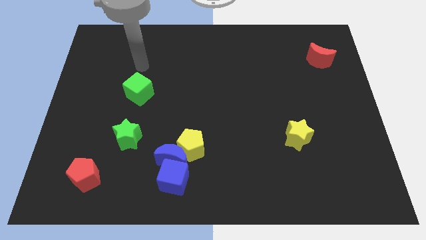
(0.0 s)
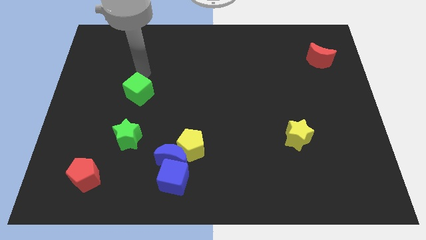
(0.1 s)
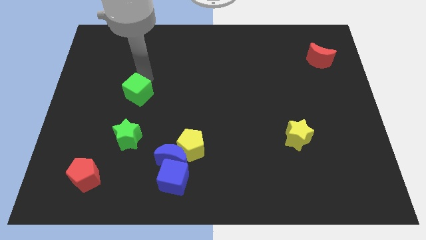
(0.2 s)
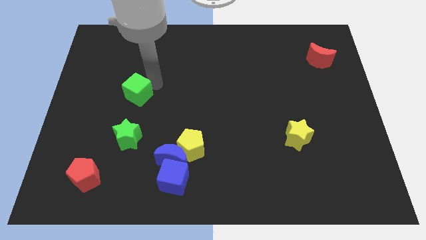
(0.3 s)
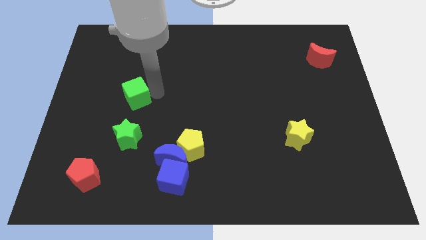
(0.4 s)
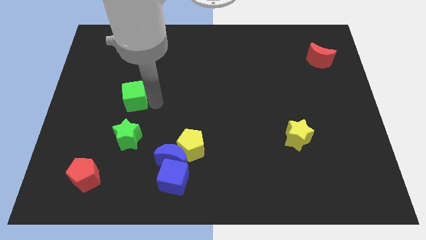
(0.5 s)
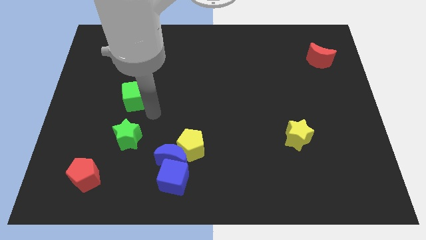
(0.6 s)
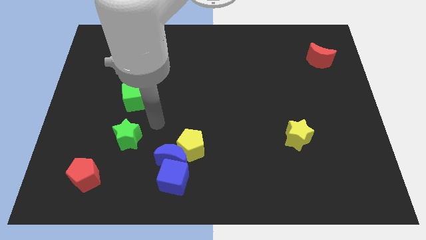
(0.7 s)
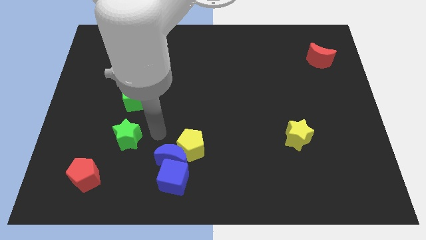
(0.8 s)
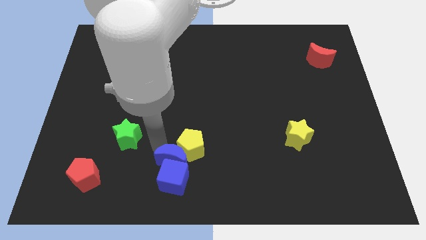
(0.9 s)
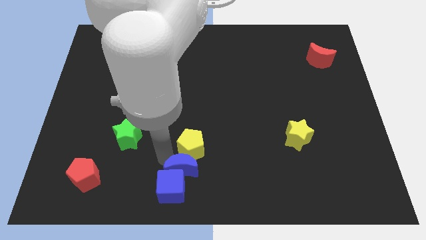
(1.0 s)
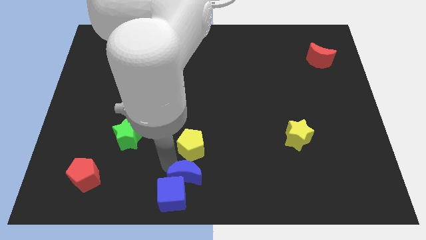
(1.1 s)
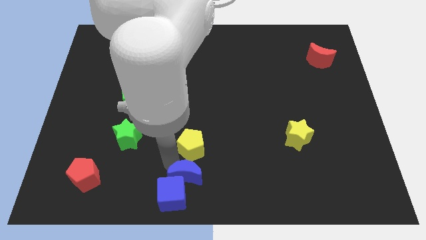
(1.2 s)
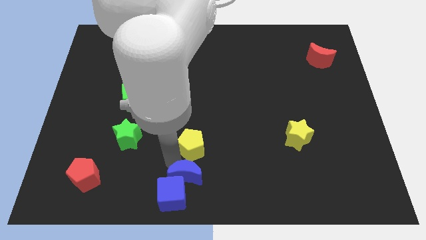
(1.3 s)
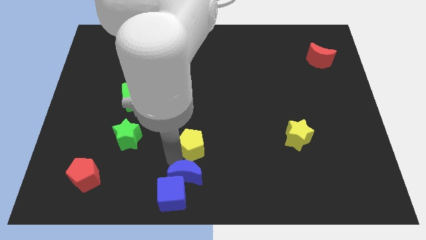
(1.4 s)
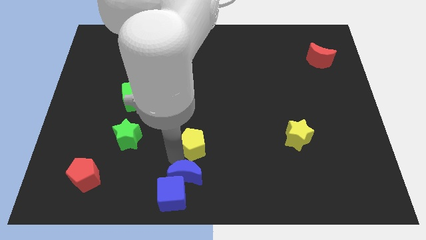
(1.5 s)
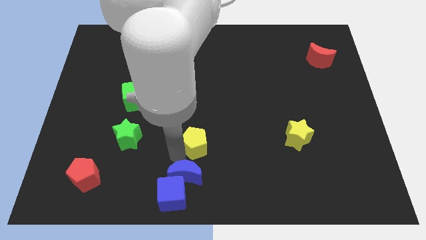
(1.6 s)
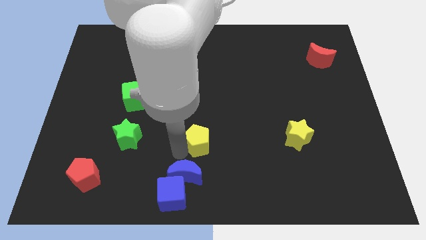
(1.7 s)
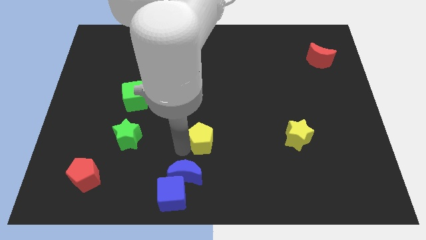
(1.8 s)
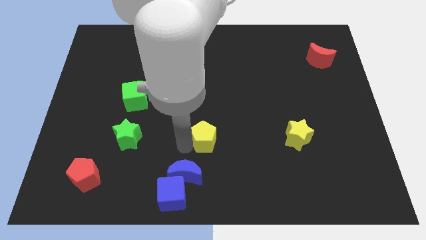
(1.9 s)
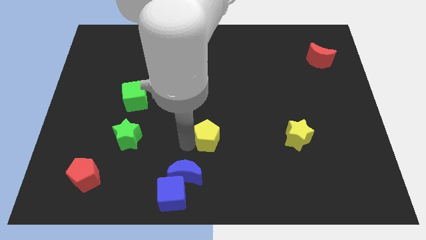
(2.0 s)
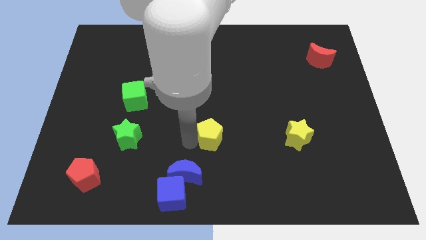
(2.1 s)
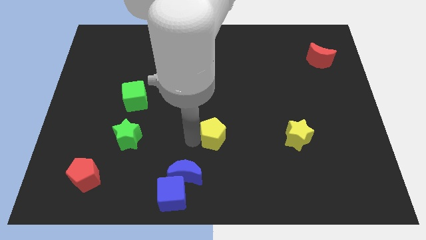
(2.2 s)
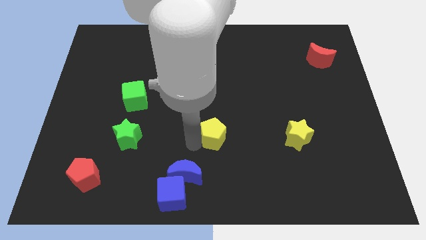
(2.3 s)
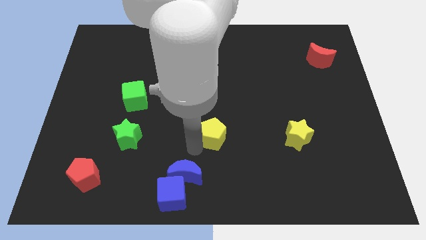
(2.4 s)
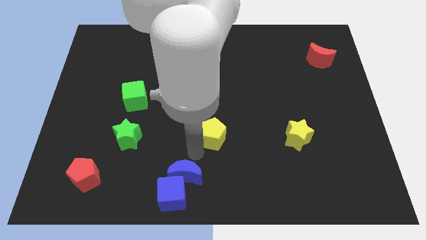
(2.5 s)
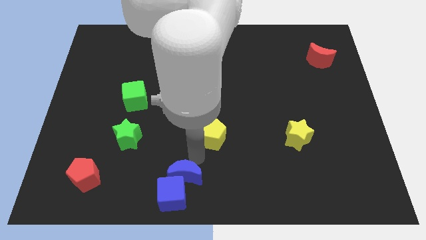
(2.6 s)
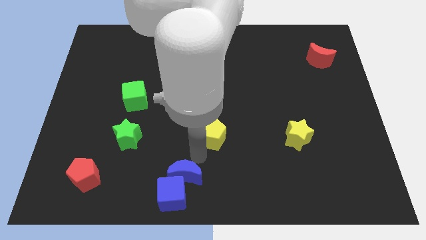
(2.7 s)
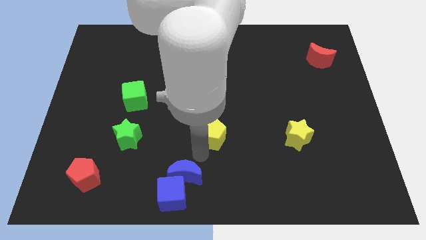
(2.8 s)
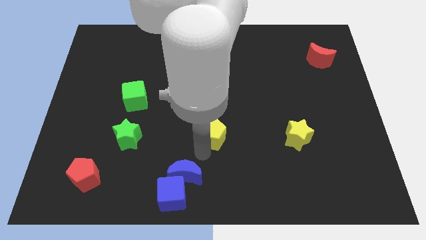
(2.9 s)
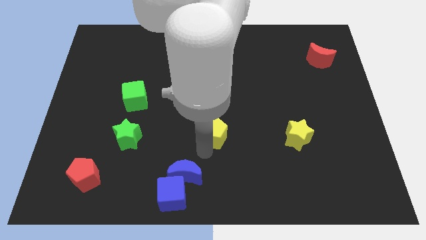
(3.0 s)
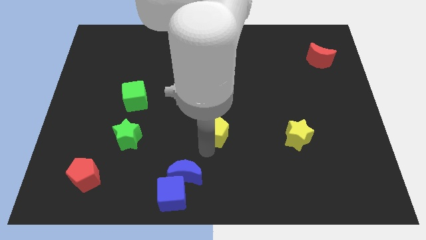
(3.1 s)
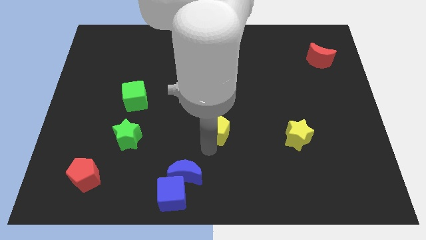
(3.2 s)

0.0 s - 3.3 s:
slightly slide the yellow pentagon diagonally up and right

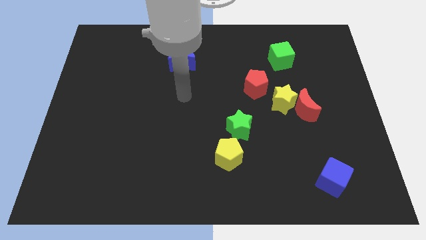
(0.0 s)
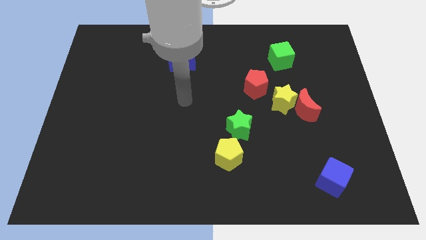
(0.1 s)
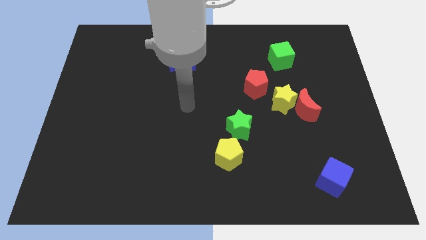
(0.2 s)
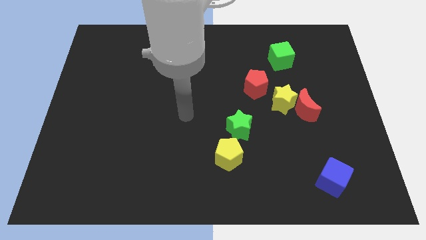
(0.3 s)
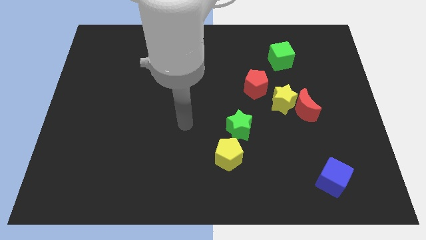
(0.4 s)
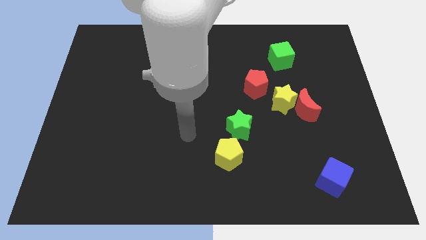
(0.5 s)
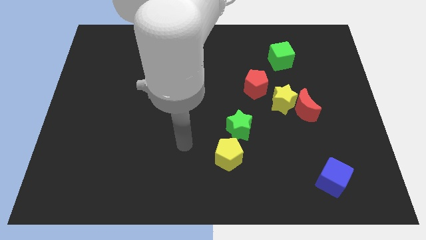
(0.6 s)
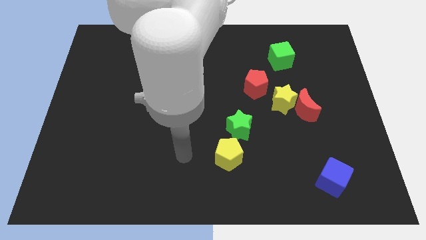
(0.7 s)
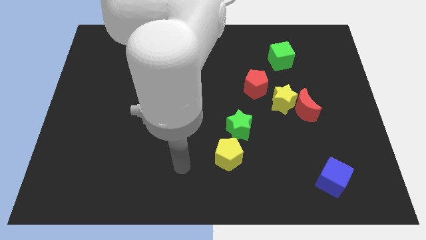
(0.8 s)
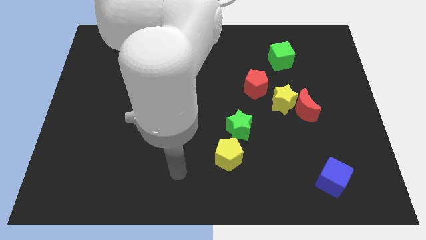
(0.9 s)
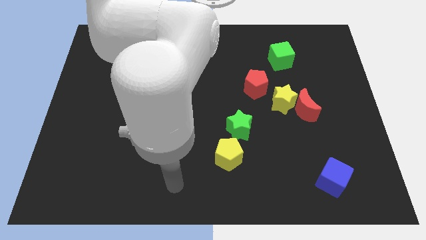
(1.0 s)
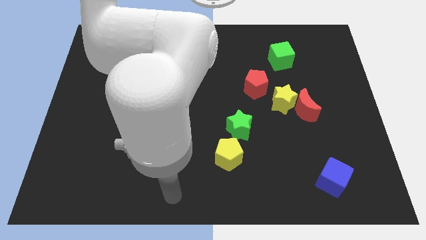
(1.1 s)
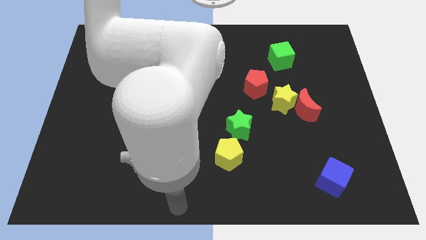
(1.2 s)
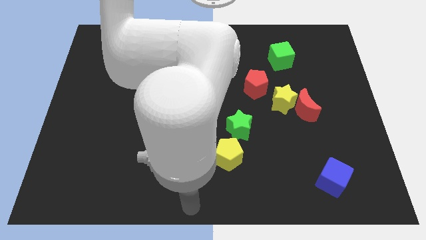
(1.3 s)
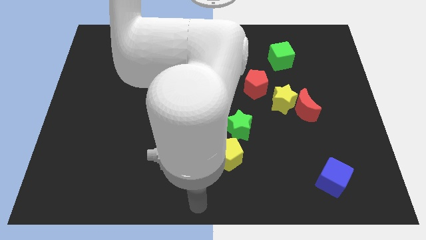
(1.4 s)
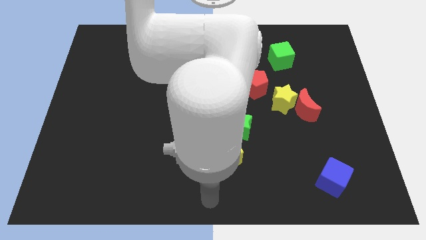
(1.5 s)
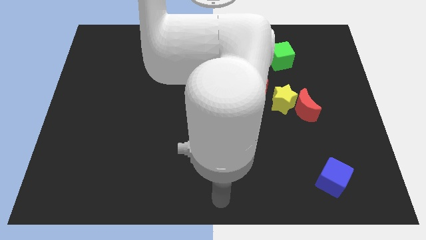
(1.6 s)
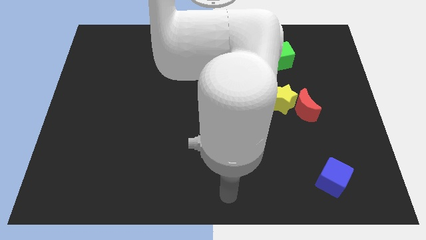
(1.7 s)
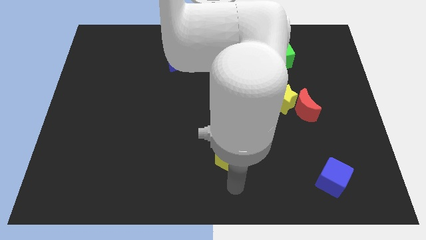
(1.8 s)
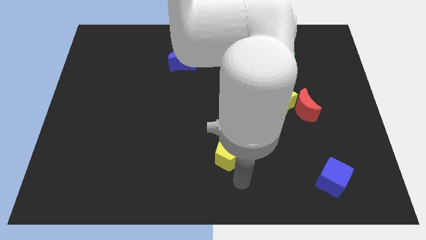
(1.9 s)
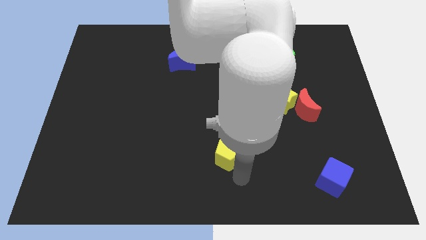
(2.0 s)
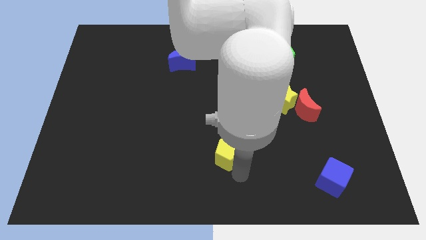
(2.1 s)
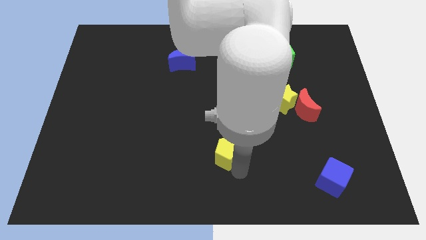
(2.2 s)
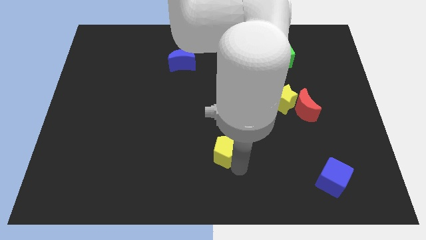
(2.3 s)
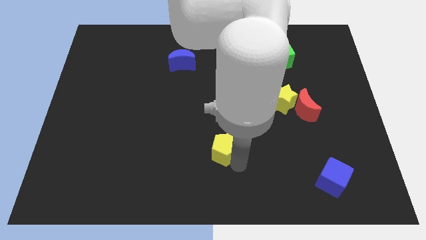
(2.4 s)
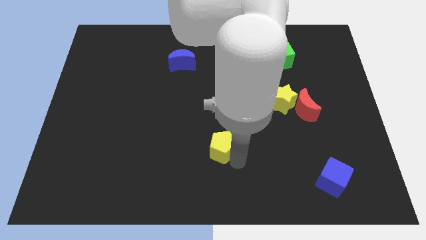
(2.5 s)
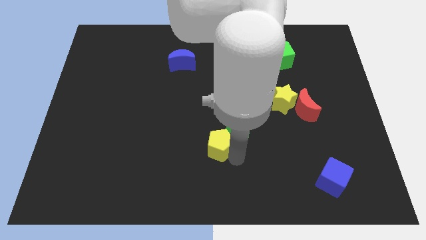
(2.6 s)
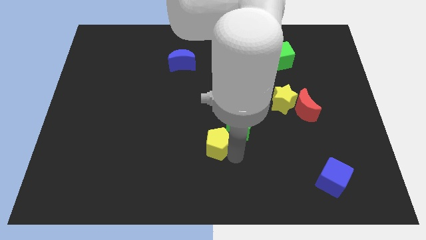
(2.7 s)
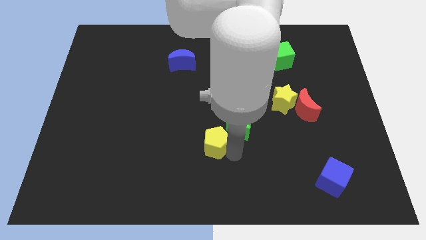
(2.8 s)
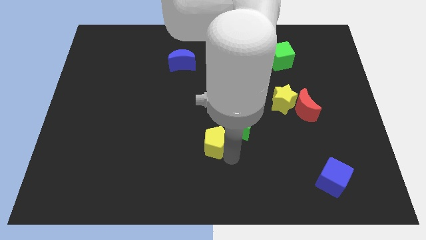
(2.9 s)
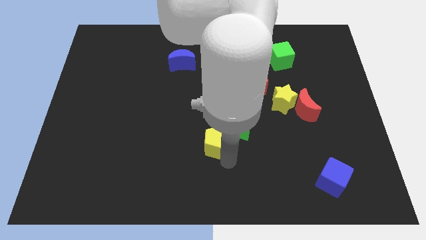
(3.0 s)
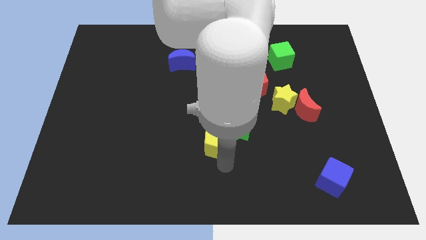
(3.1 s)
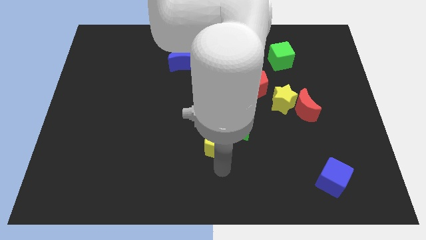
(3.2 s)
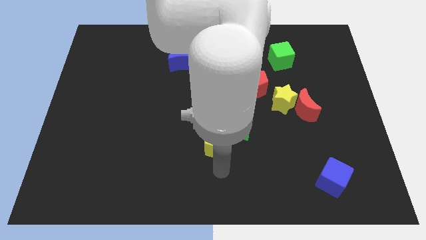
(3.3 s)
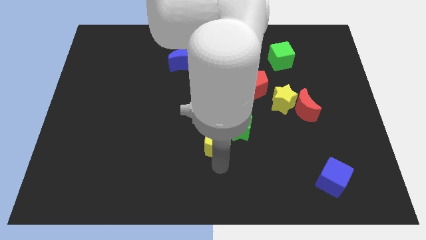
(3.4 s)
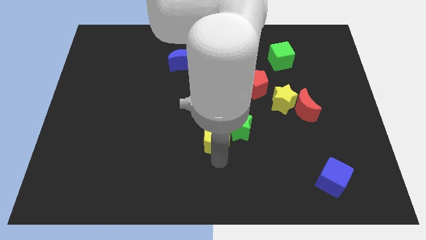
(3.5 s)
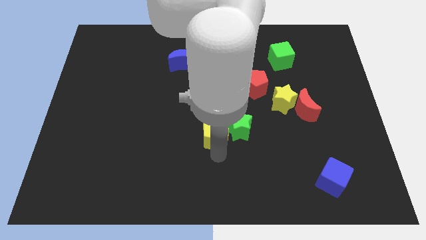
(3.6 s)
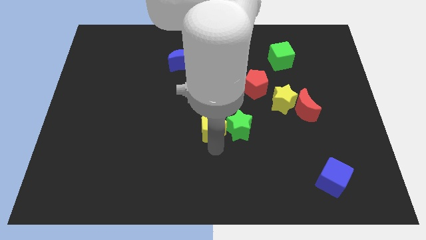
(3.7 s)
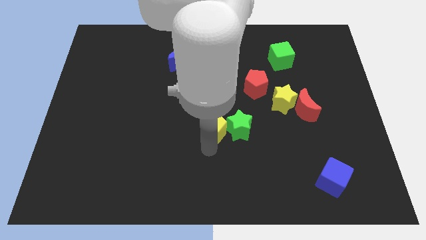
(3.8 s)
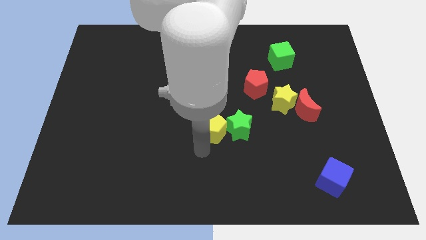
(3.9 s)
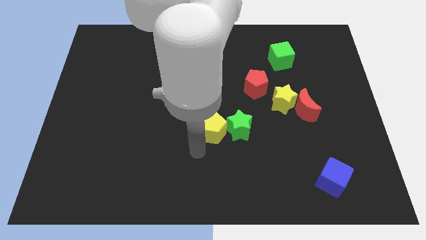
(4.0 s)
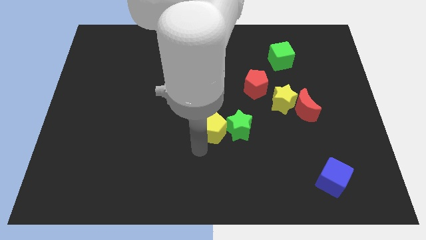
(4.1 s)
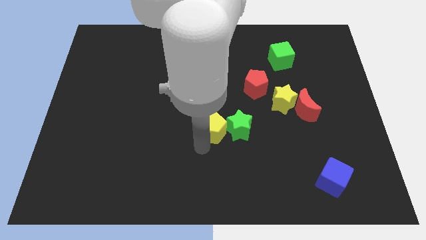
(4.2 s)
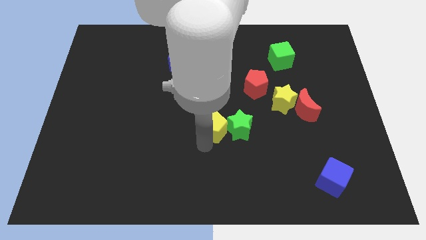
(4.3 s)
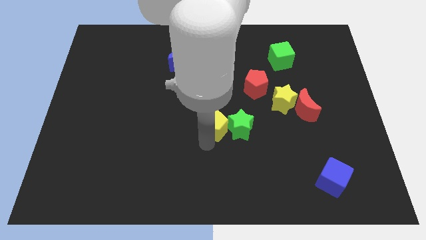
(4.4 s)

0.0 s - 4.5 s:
slightly push the yellow pentagon up
